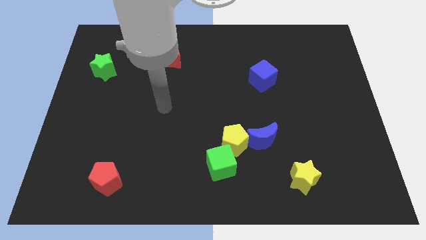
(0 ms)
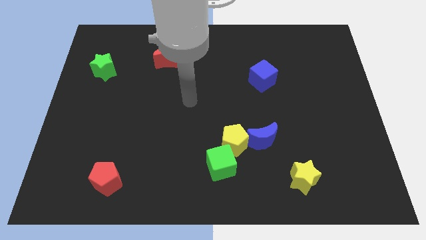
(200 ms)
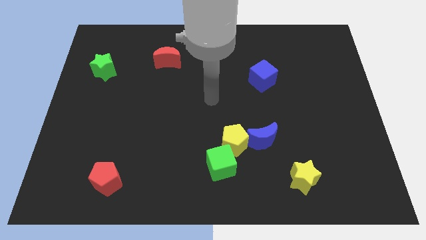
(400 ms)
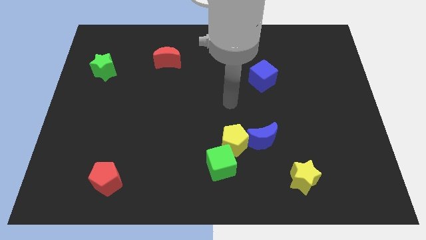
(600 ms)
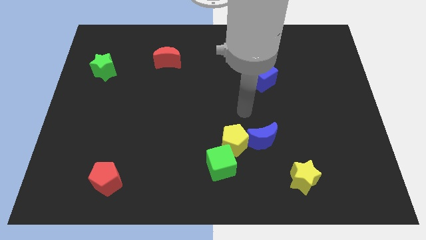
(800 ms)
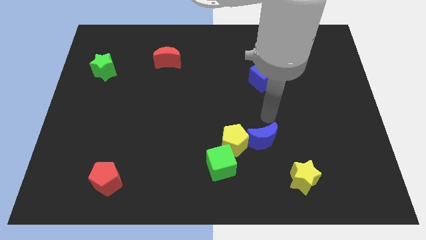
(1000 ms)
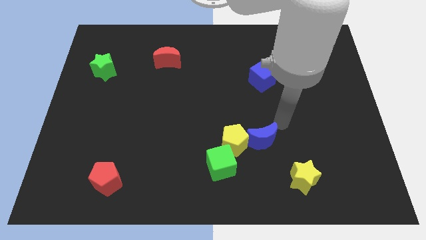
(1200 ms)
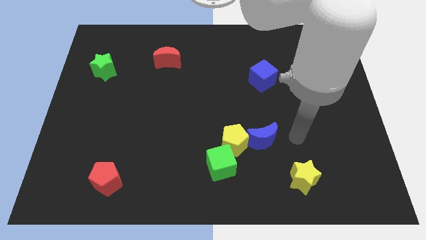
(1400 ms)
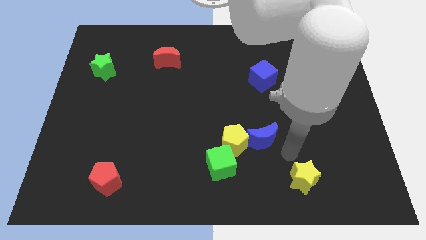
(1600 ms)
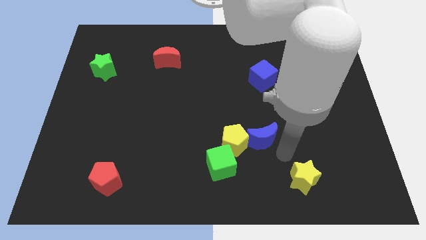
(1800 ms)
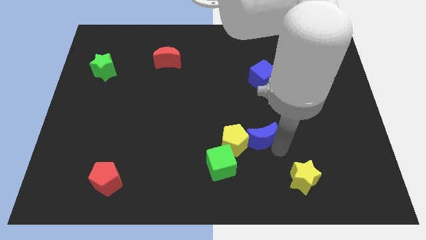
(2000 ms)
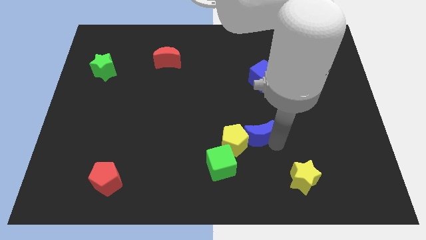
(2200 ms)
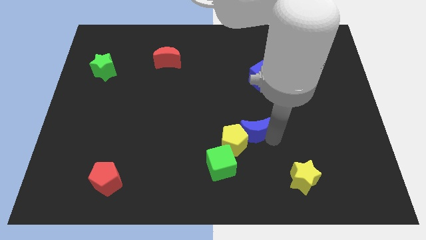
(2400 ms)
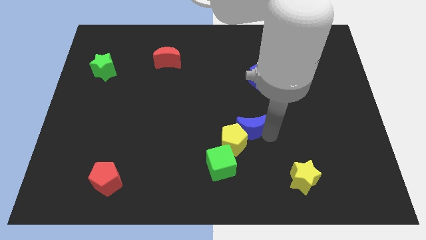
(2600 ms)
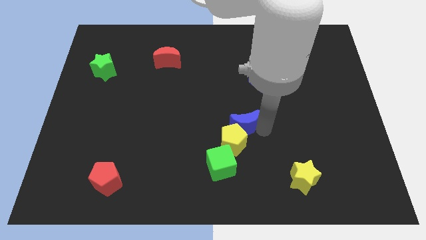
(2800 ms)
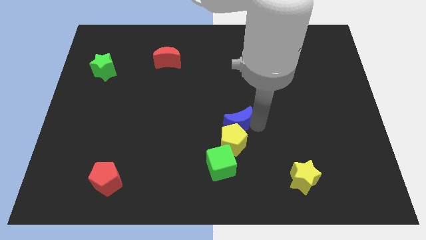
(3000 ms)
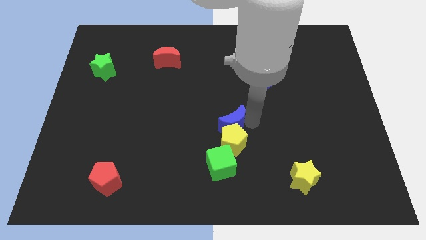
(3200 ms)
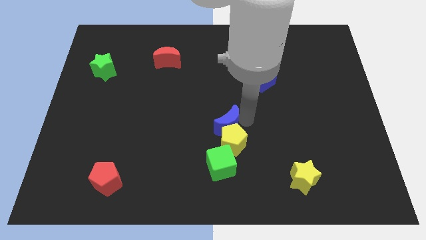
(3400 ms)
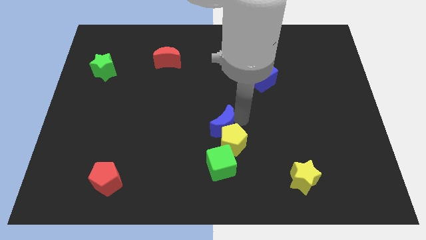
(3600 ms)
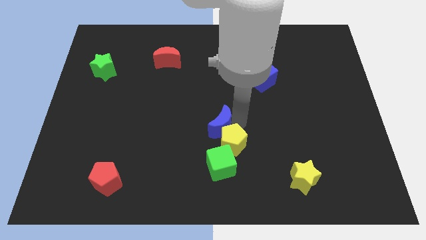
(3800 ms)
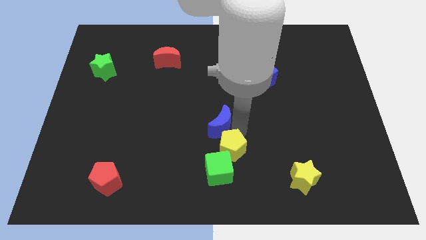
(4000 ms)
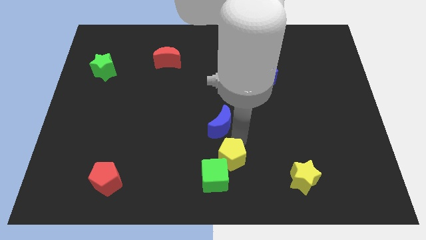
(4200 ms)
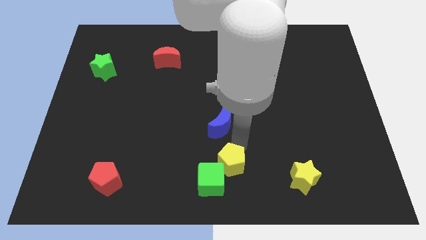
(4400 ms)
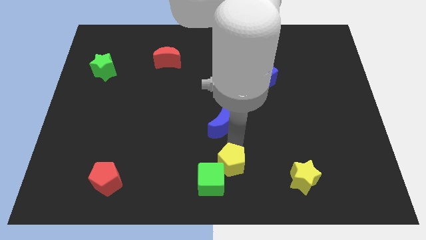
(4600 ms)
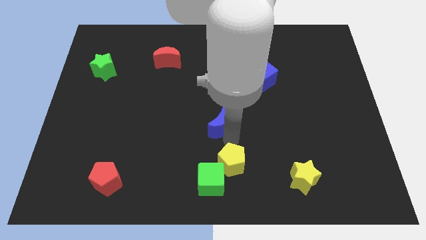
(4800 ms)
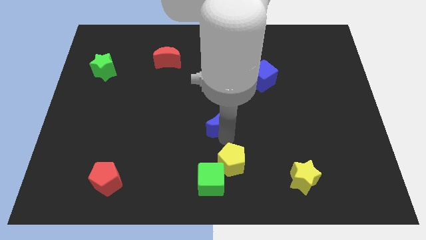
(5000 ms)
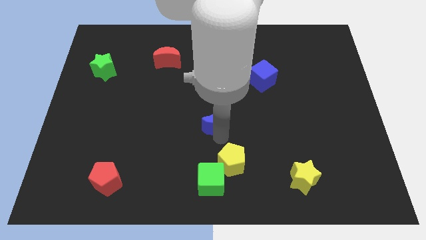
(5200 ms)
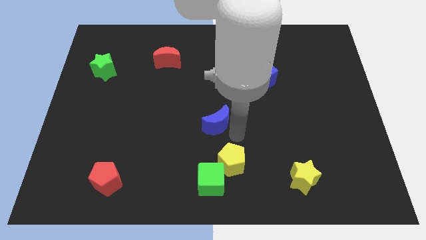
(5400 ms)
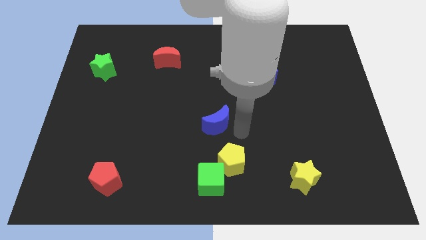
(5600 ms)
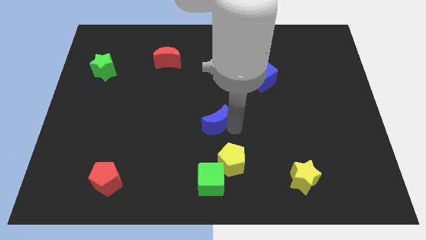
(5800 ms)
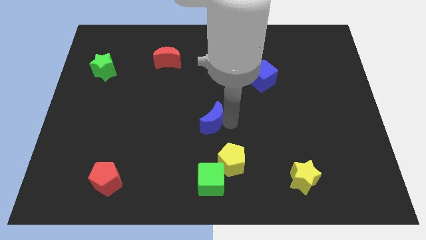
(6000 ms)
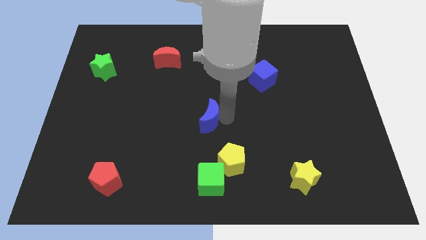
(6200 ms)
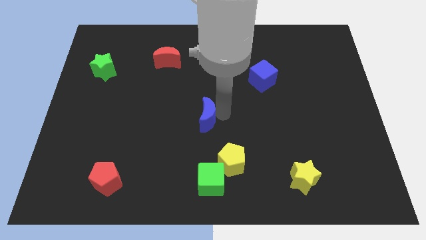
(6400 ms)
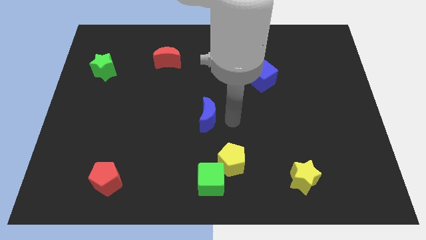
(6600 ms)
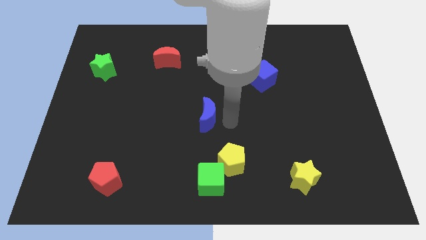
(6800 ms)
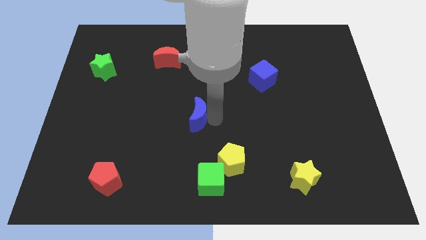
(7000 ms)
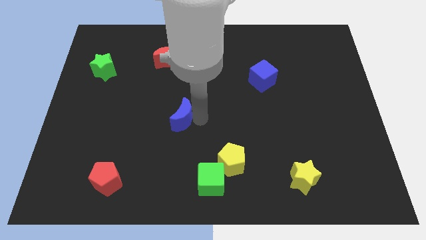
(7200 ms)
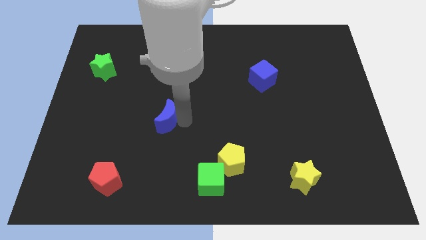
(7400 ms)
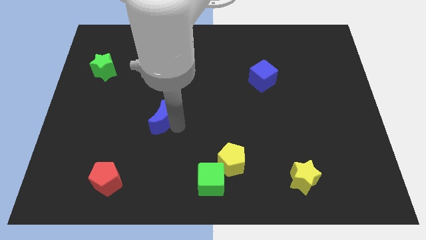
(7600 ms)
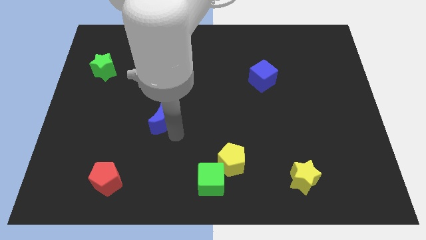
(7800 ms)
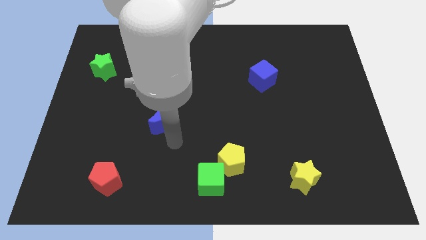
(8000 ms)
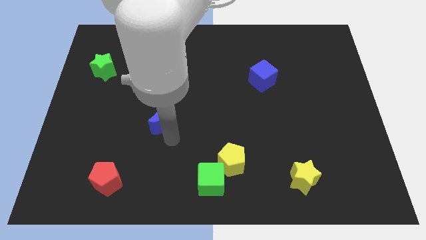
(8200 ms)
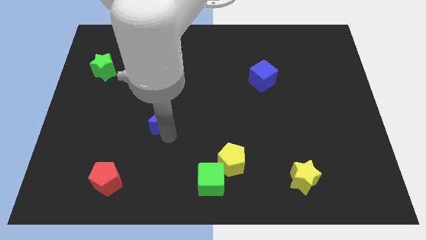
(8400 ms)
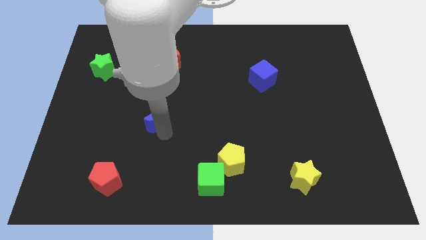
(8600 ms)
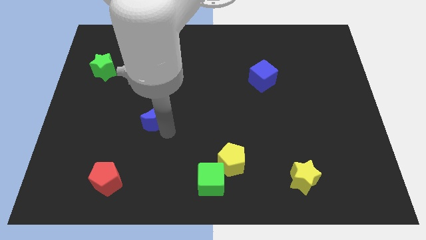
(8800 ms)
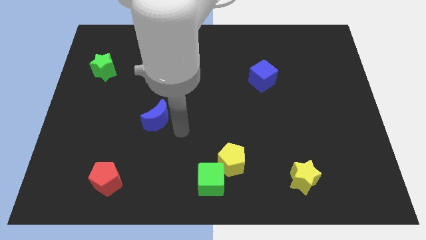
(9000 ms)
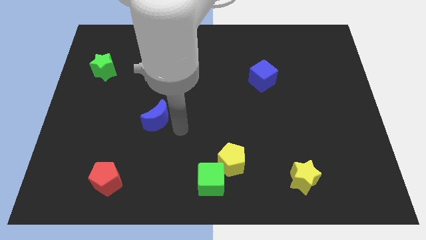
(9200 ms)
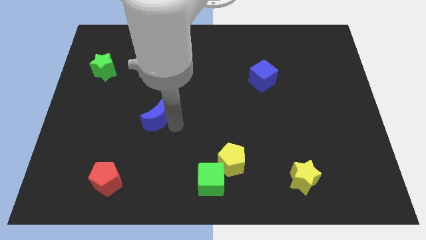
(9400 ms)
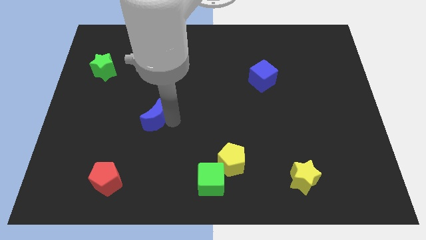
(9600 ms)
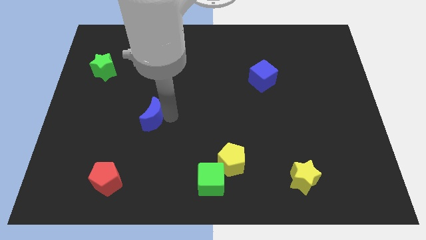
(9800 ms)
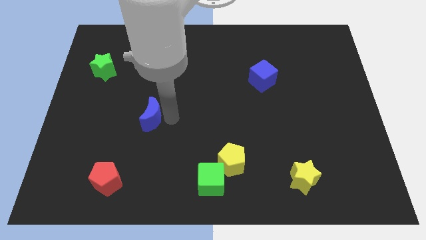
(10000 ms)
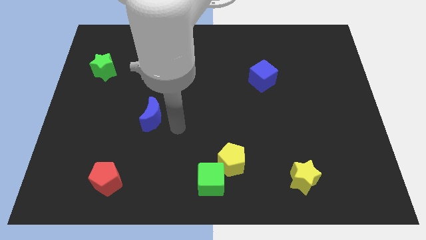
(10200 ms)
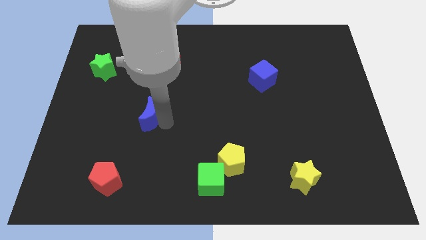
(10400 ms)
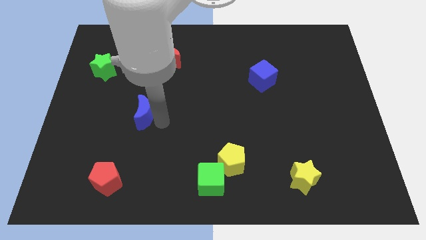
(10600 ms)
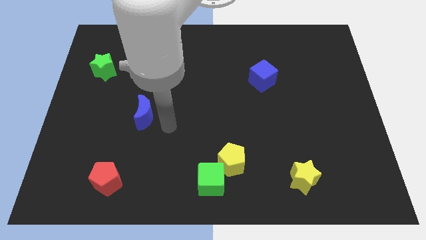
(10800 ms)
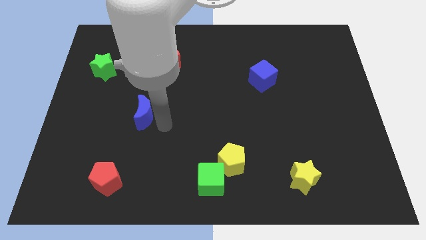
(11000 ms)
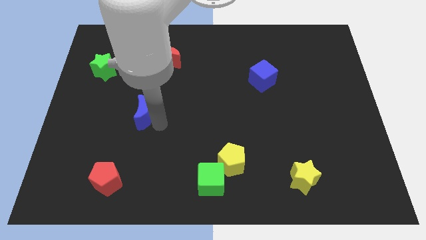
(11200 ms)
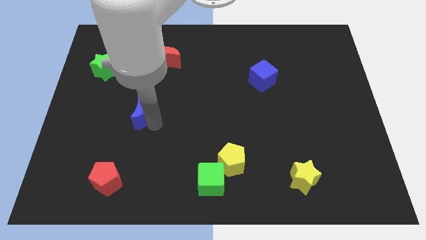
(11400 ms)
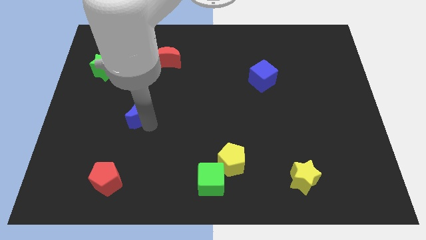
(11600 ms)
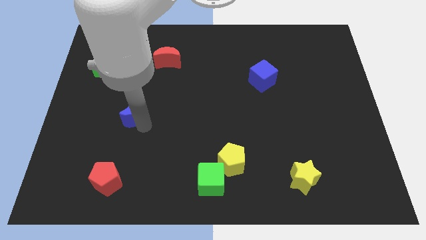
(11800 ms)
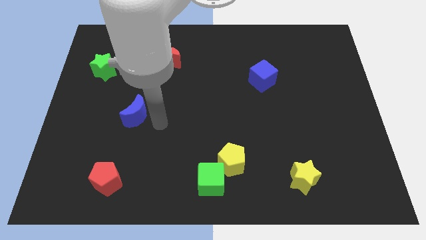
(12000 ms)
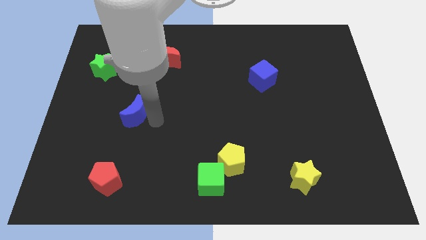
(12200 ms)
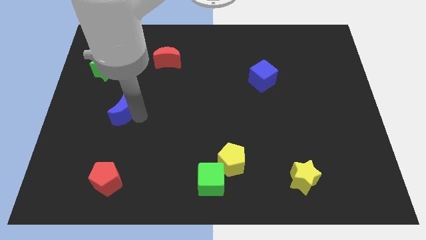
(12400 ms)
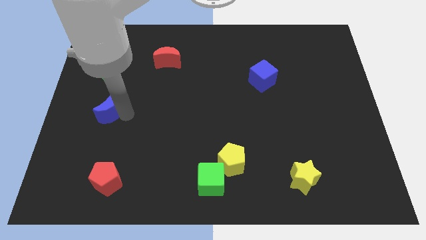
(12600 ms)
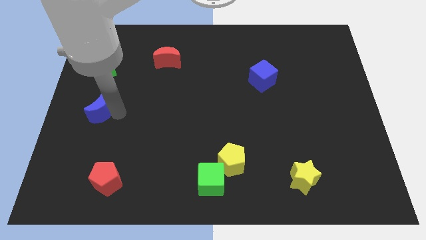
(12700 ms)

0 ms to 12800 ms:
push the blue moon to the center left
